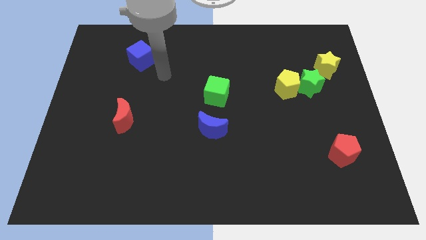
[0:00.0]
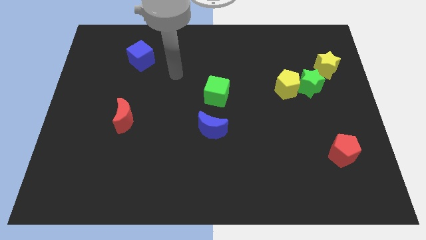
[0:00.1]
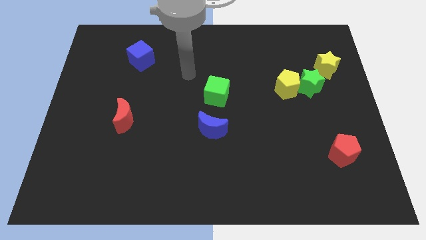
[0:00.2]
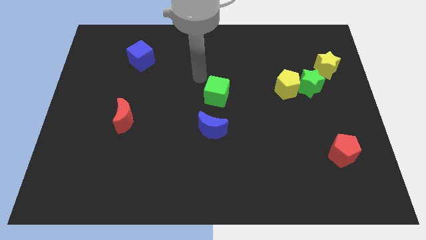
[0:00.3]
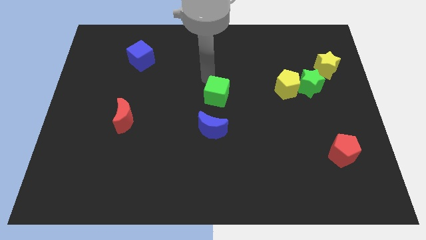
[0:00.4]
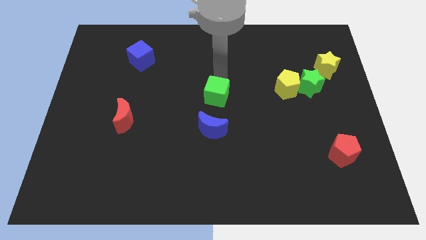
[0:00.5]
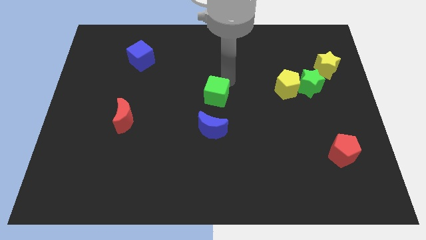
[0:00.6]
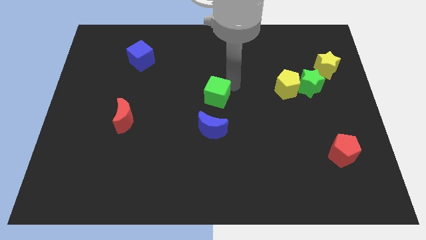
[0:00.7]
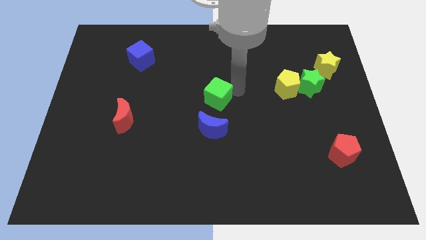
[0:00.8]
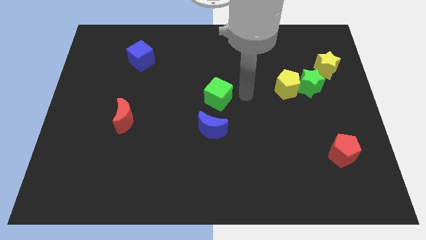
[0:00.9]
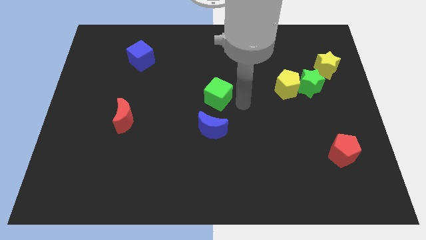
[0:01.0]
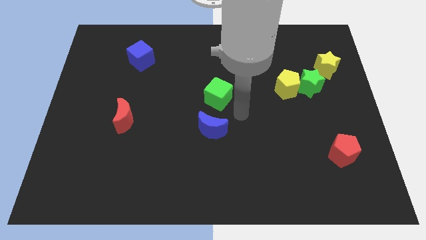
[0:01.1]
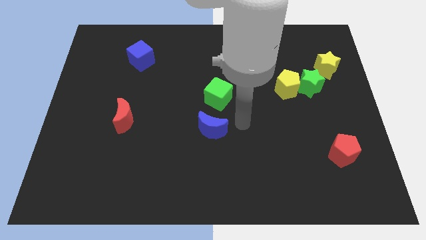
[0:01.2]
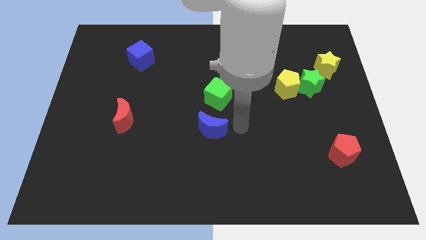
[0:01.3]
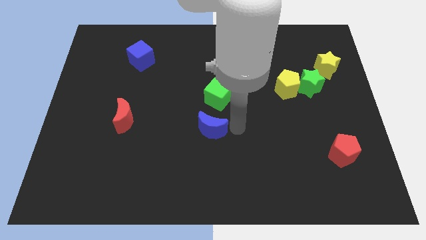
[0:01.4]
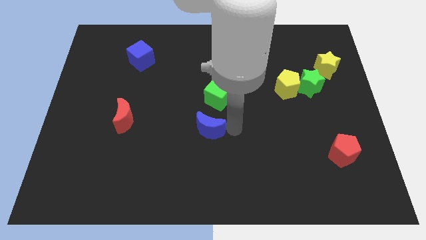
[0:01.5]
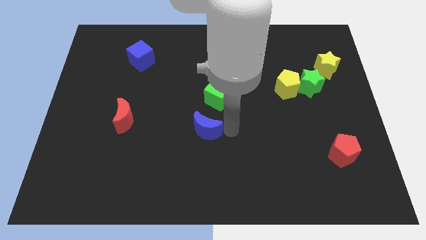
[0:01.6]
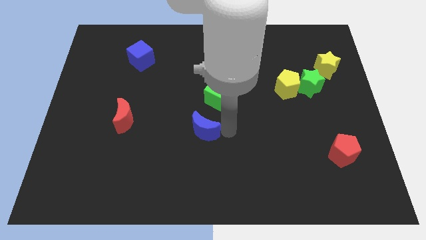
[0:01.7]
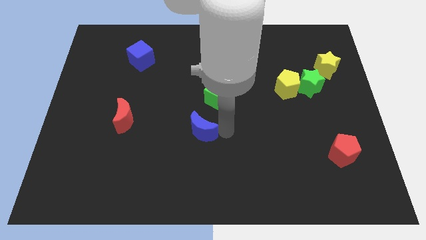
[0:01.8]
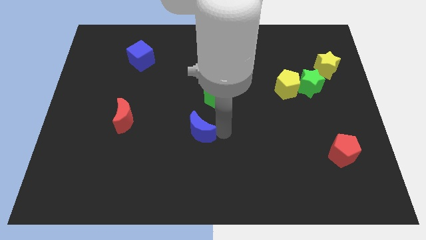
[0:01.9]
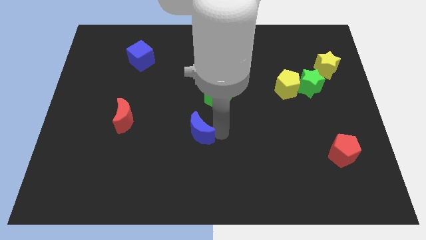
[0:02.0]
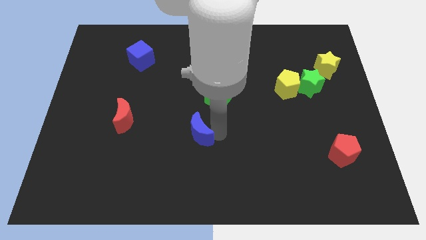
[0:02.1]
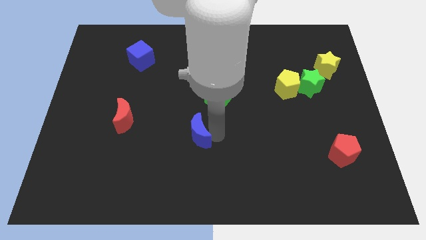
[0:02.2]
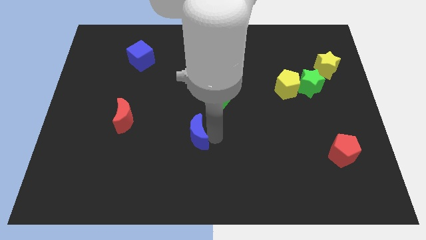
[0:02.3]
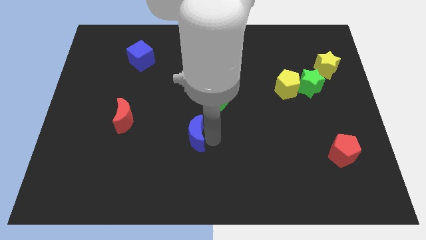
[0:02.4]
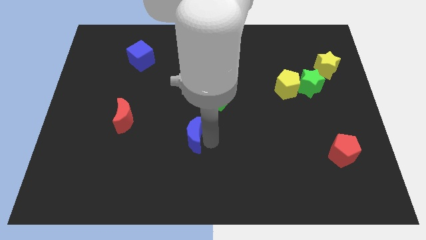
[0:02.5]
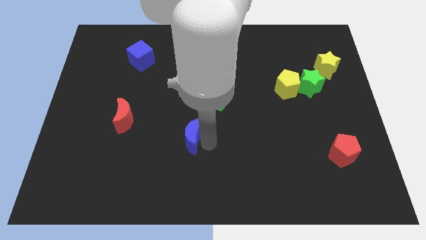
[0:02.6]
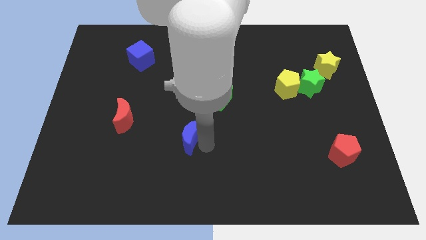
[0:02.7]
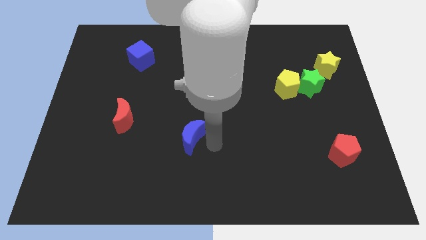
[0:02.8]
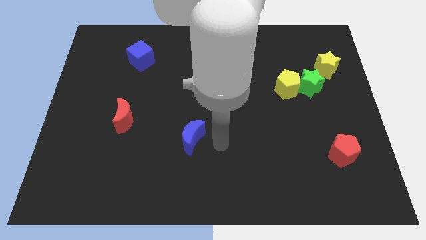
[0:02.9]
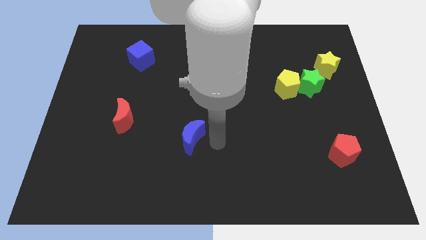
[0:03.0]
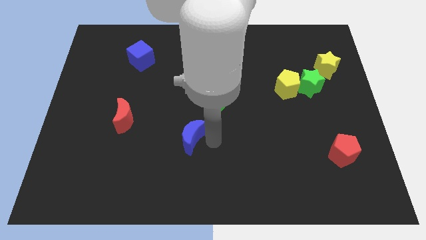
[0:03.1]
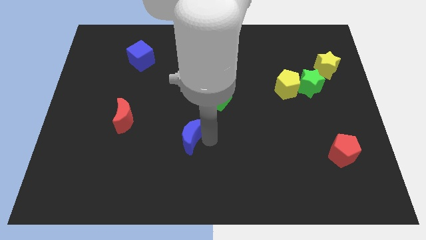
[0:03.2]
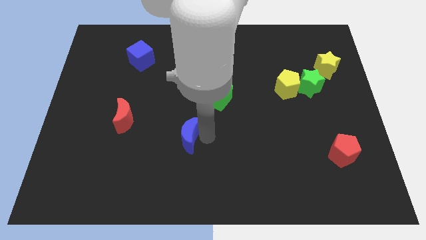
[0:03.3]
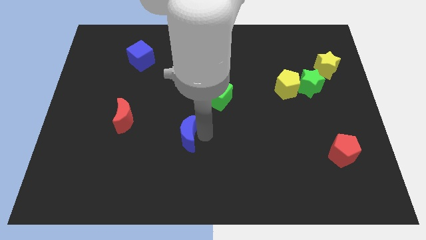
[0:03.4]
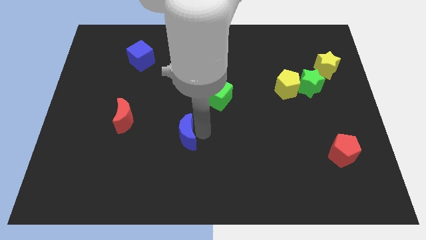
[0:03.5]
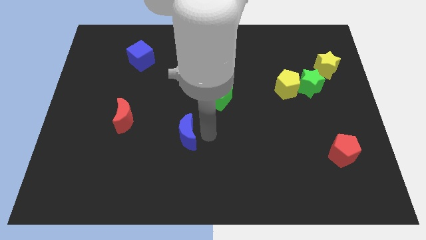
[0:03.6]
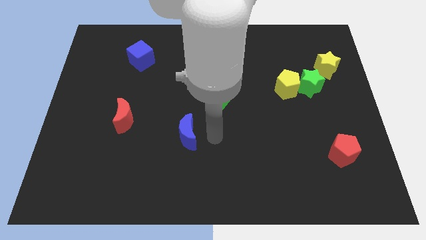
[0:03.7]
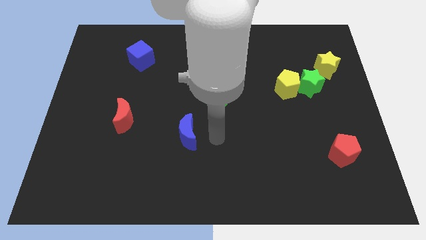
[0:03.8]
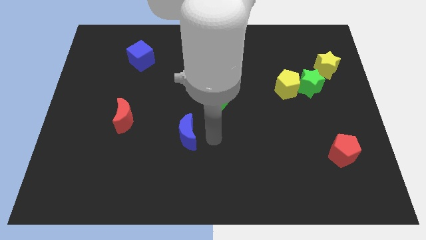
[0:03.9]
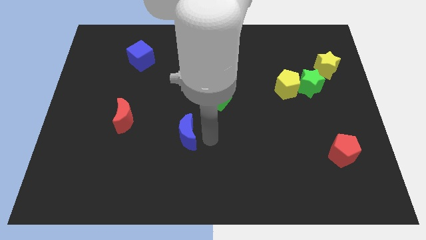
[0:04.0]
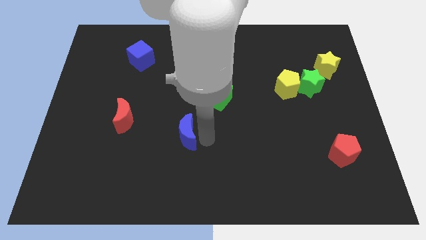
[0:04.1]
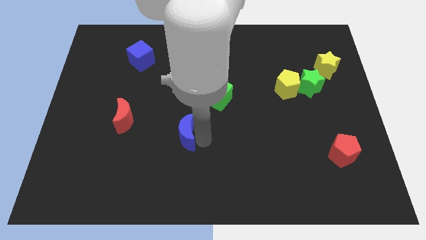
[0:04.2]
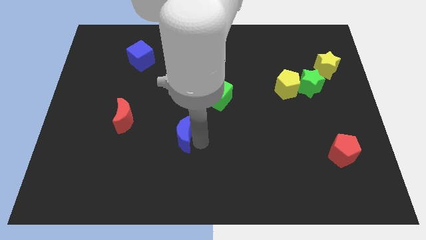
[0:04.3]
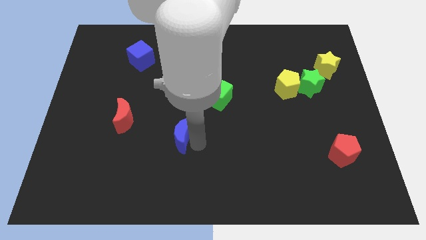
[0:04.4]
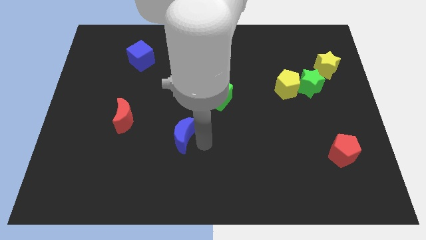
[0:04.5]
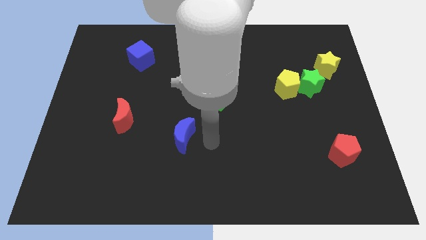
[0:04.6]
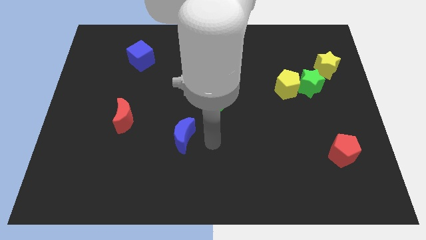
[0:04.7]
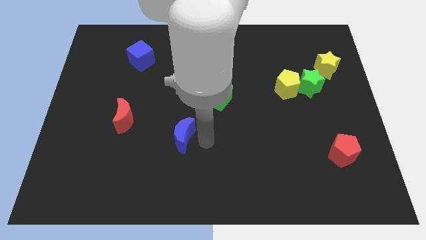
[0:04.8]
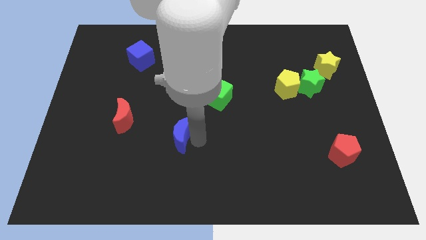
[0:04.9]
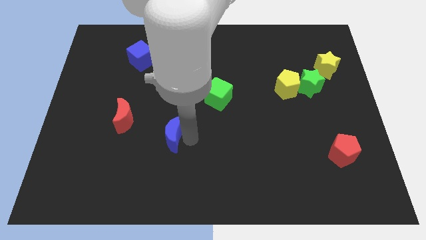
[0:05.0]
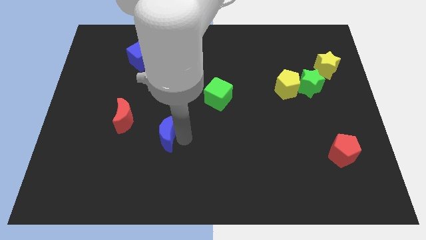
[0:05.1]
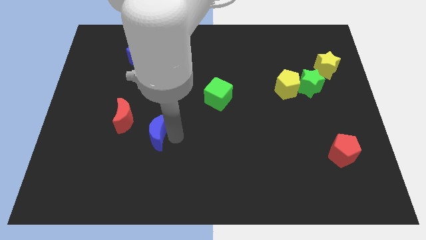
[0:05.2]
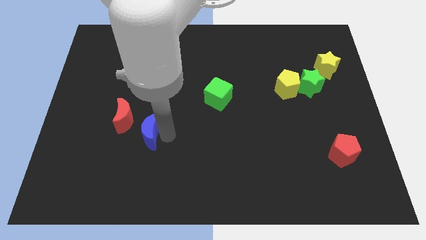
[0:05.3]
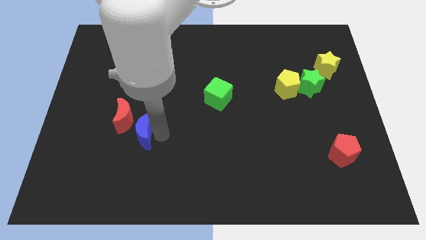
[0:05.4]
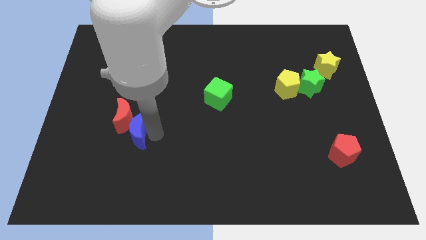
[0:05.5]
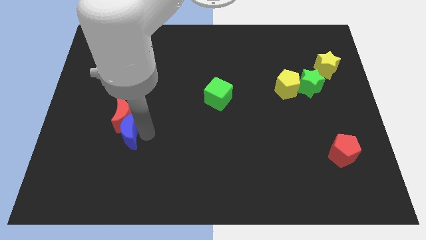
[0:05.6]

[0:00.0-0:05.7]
push the blue moon to the bottom left side of the red moon

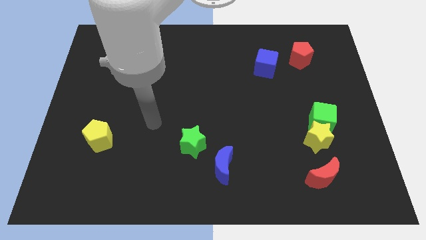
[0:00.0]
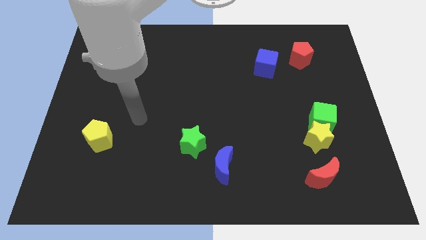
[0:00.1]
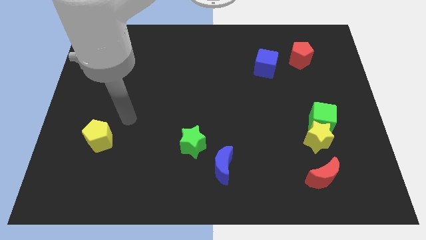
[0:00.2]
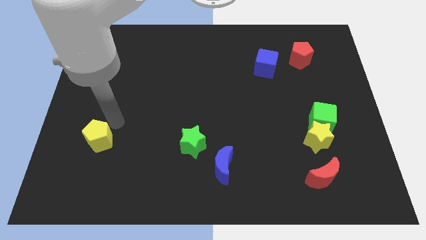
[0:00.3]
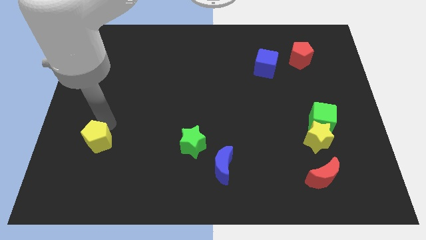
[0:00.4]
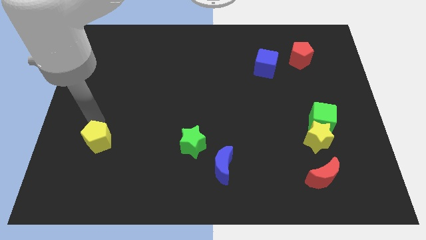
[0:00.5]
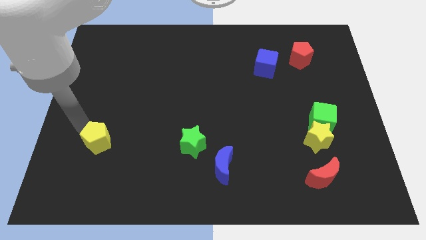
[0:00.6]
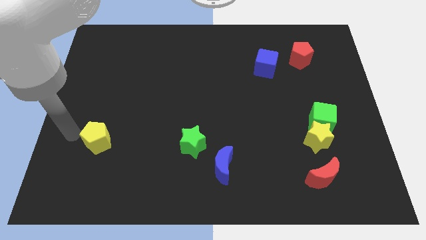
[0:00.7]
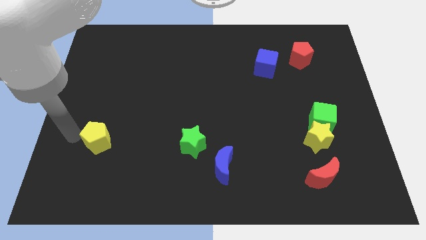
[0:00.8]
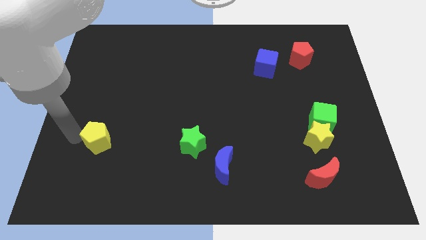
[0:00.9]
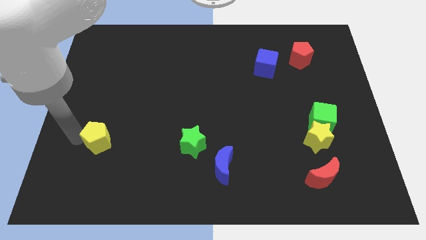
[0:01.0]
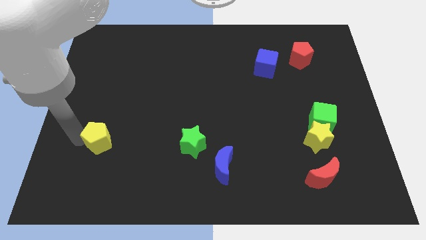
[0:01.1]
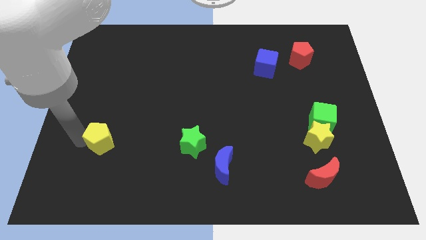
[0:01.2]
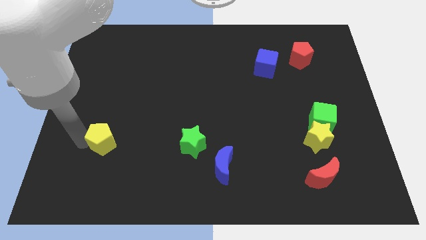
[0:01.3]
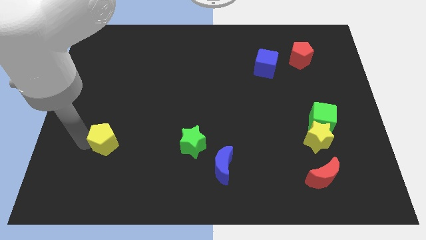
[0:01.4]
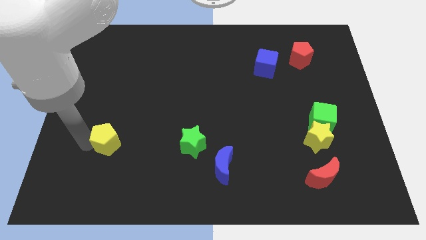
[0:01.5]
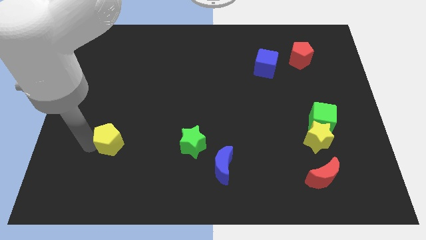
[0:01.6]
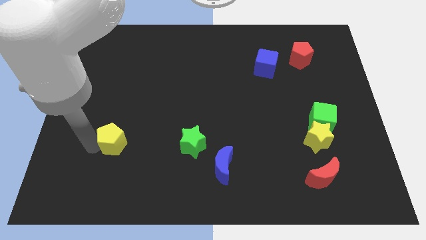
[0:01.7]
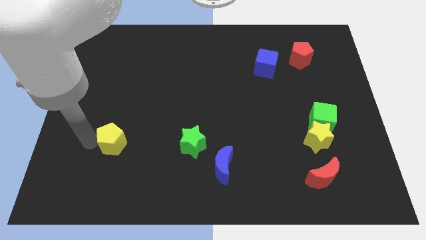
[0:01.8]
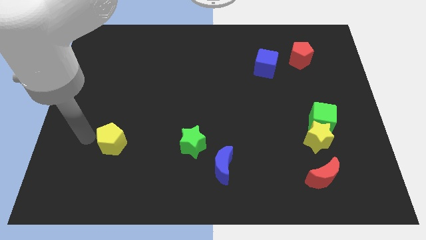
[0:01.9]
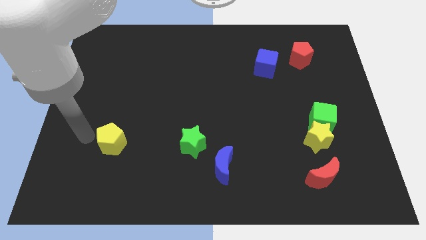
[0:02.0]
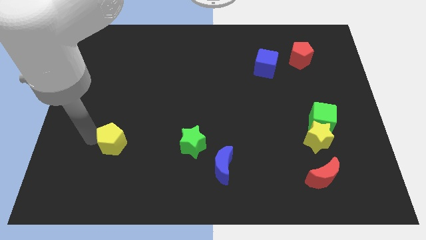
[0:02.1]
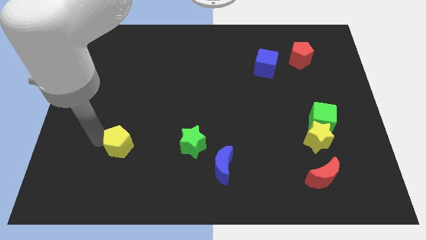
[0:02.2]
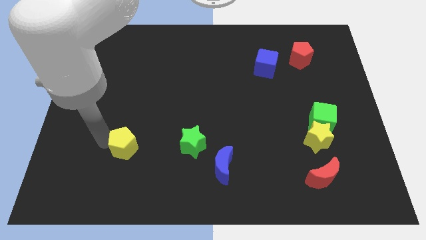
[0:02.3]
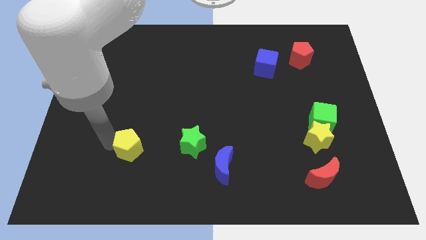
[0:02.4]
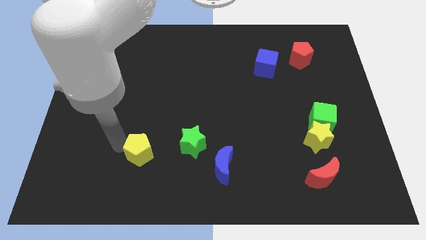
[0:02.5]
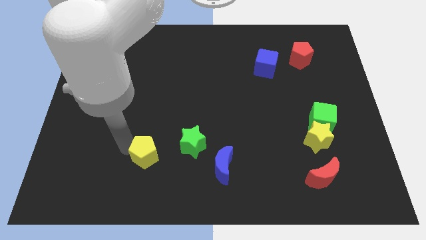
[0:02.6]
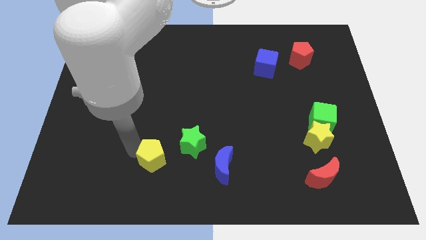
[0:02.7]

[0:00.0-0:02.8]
push the yellow pentagon to the bottom left side of the green star
